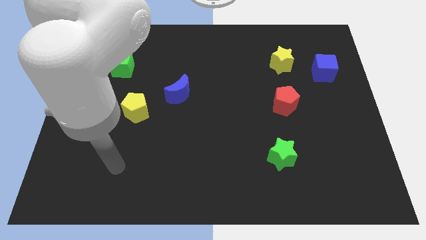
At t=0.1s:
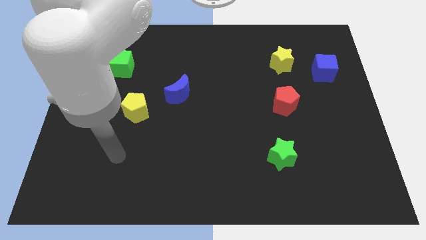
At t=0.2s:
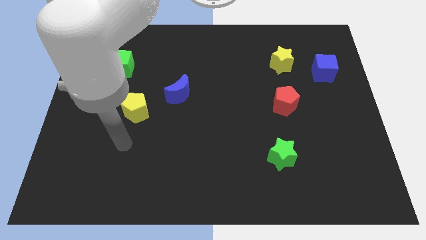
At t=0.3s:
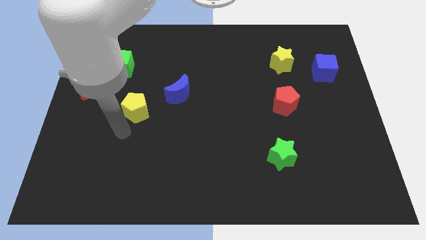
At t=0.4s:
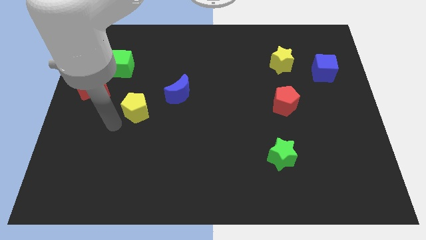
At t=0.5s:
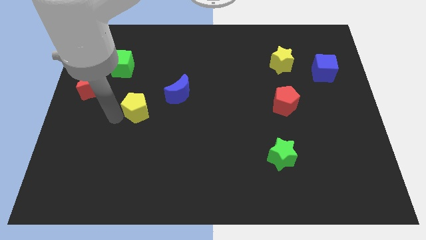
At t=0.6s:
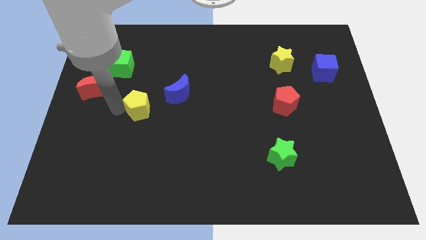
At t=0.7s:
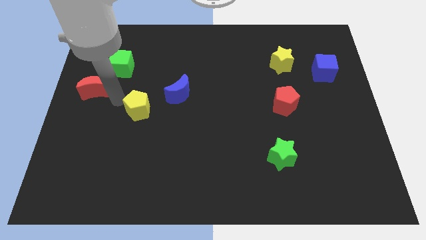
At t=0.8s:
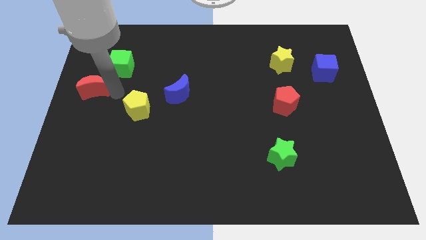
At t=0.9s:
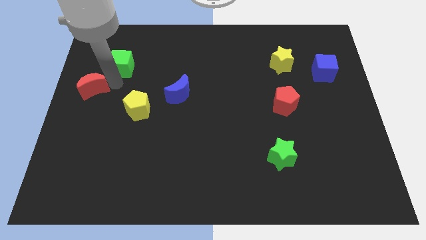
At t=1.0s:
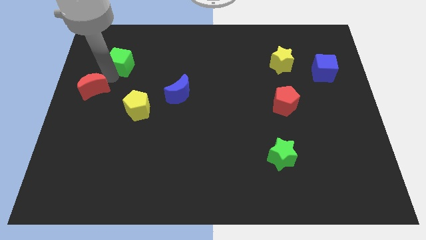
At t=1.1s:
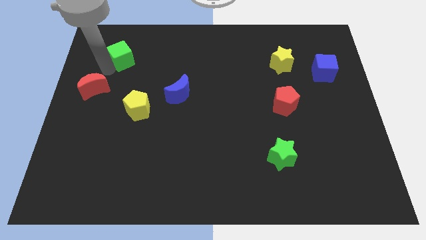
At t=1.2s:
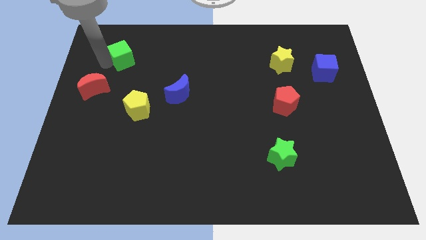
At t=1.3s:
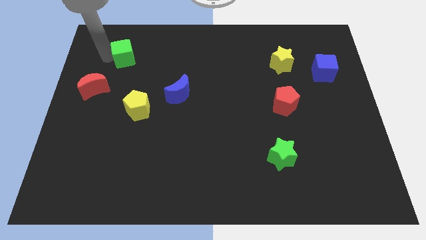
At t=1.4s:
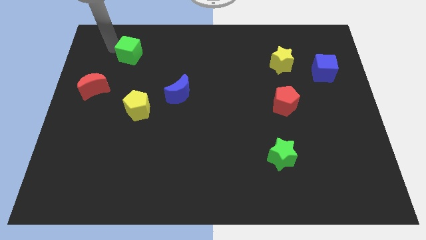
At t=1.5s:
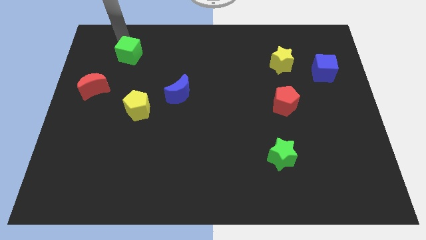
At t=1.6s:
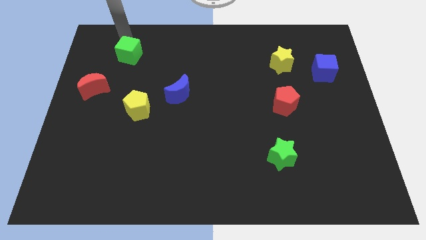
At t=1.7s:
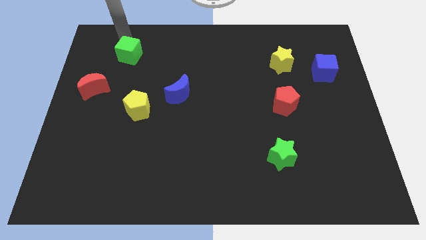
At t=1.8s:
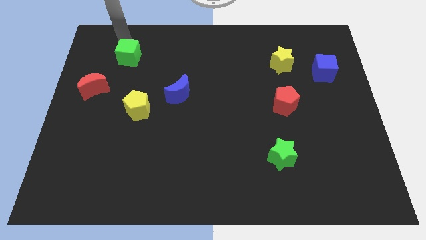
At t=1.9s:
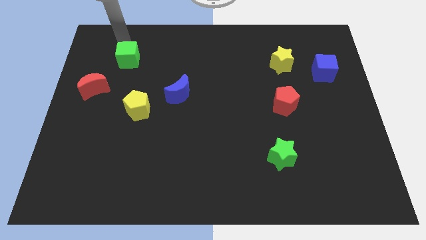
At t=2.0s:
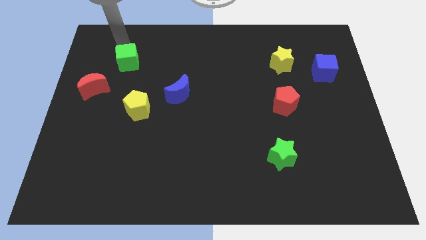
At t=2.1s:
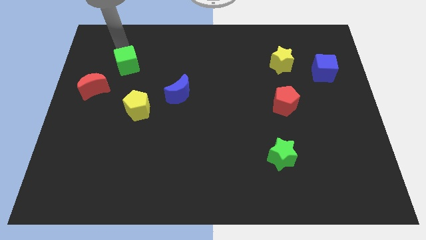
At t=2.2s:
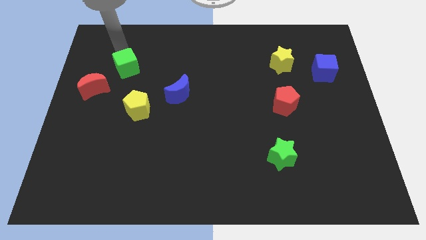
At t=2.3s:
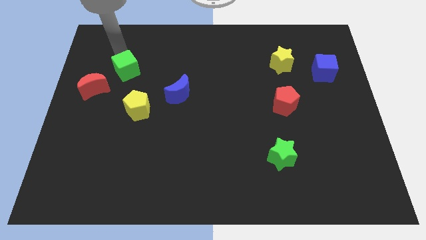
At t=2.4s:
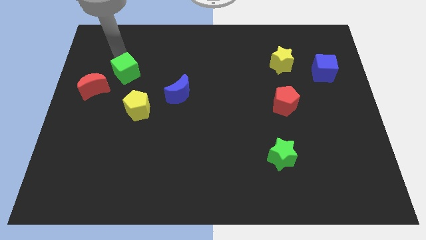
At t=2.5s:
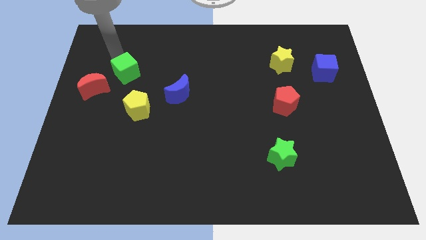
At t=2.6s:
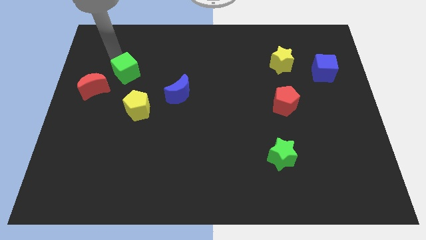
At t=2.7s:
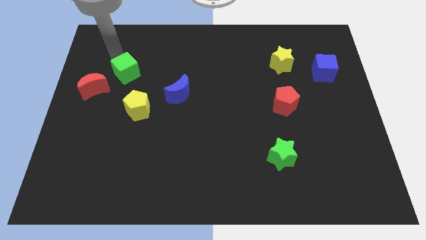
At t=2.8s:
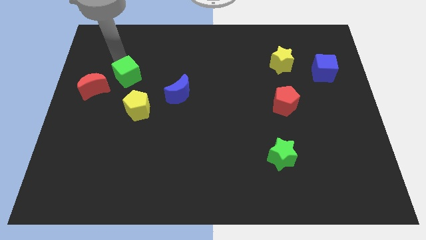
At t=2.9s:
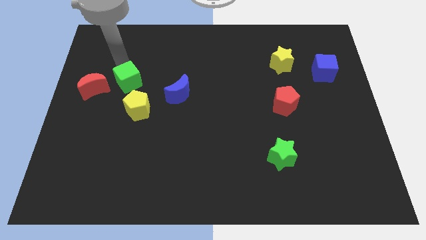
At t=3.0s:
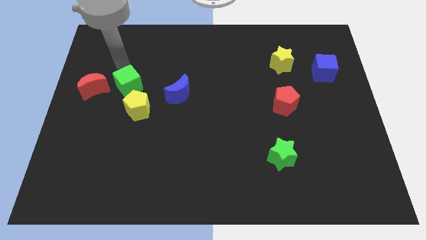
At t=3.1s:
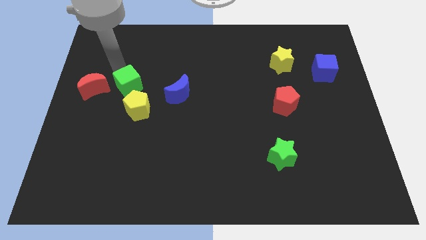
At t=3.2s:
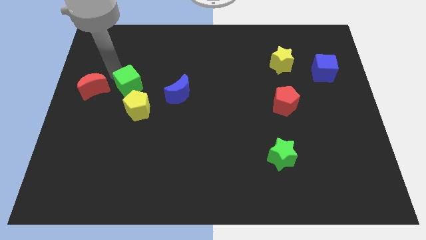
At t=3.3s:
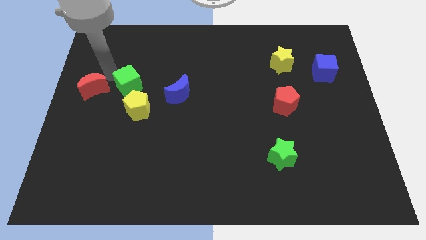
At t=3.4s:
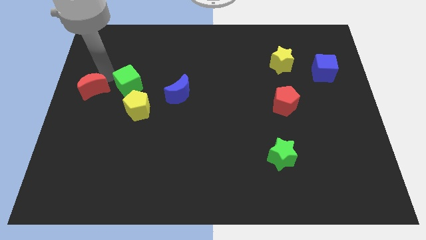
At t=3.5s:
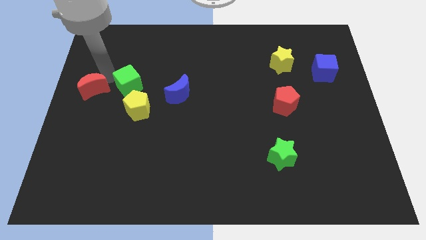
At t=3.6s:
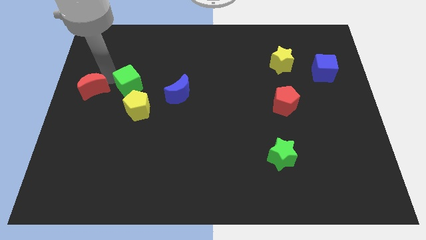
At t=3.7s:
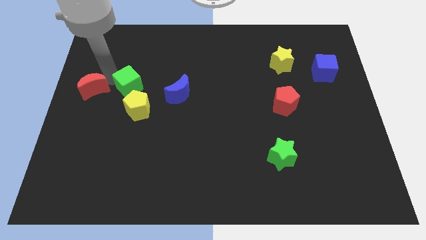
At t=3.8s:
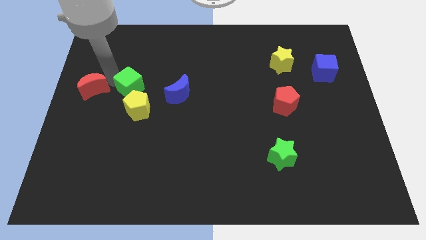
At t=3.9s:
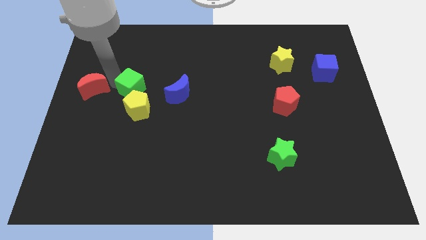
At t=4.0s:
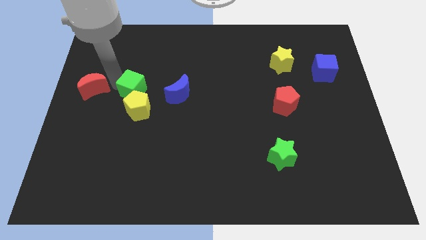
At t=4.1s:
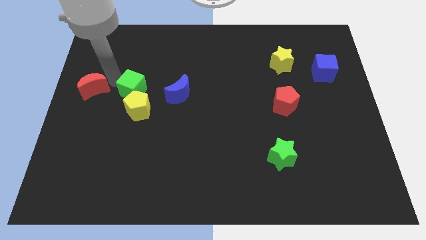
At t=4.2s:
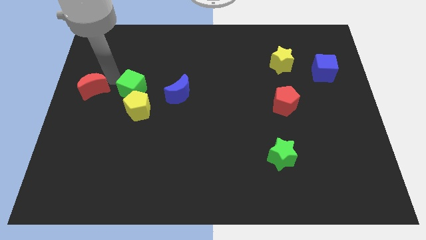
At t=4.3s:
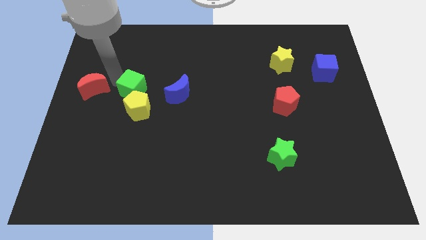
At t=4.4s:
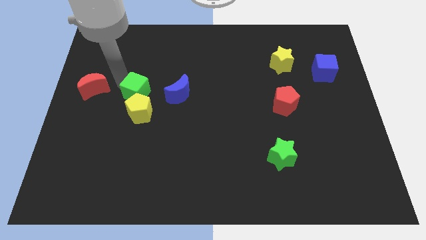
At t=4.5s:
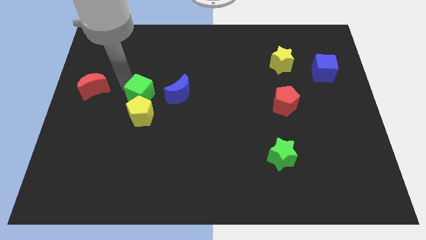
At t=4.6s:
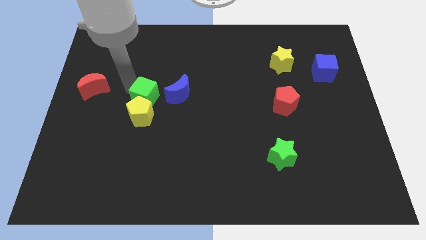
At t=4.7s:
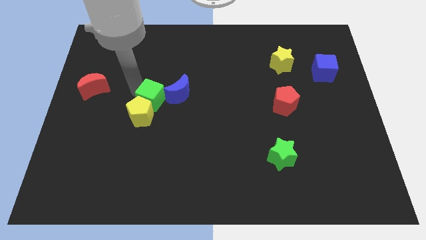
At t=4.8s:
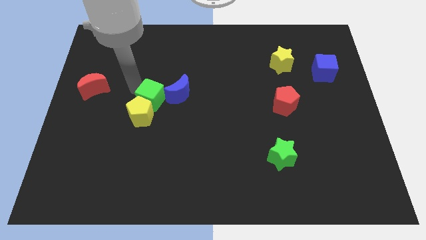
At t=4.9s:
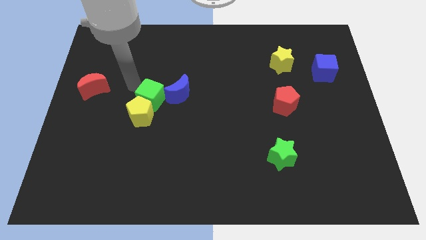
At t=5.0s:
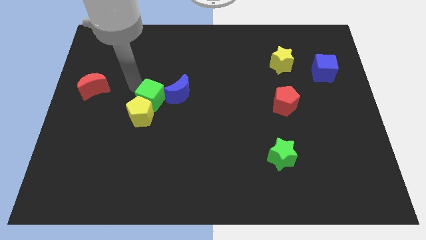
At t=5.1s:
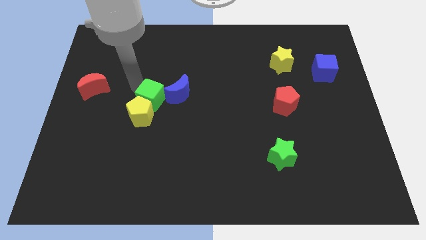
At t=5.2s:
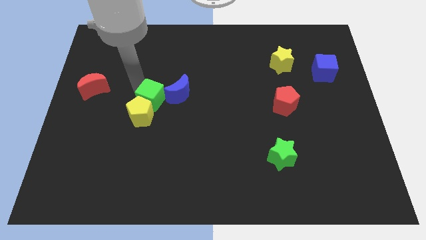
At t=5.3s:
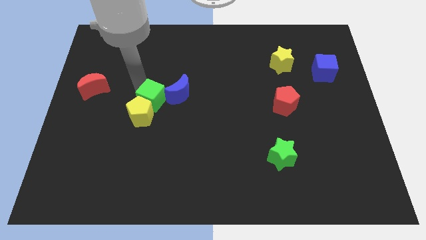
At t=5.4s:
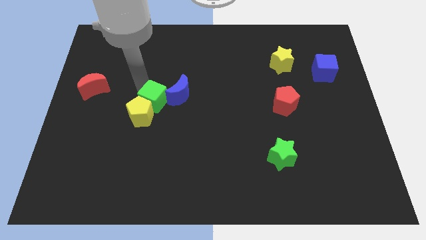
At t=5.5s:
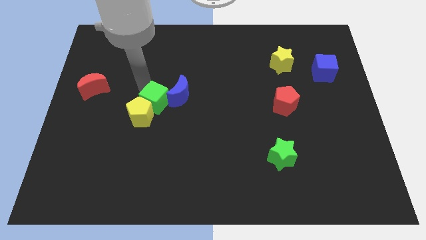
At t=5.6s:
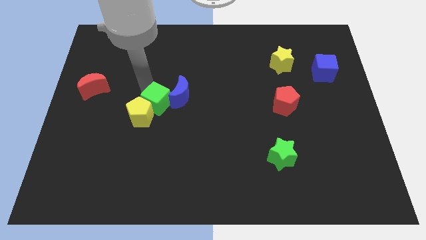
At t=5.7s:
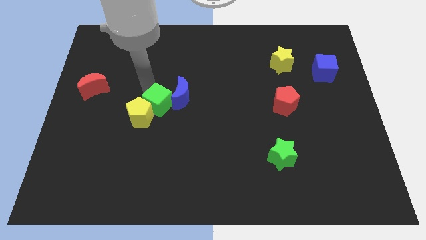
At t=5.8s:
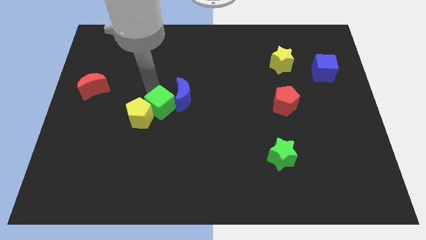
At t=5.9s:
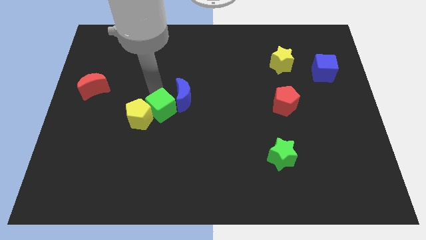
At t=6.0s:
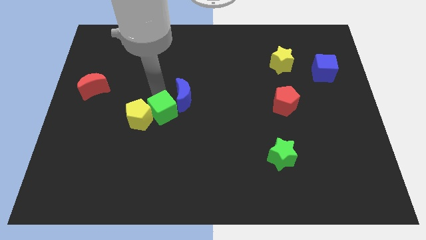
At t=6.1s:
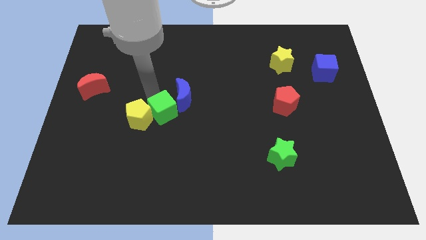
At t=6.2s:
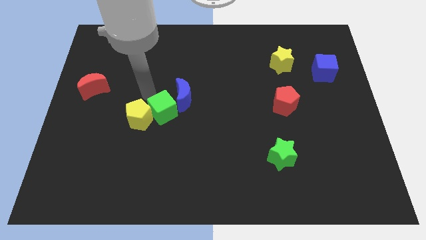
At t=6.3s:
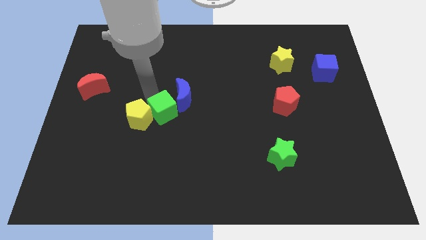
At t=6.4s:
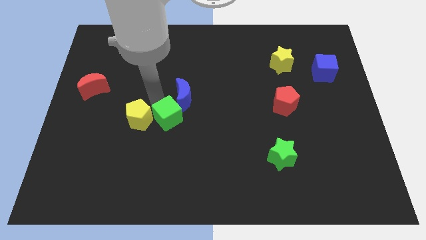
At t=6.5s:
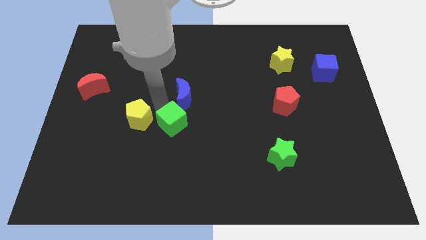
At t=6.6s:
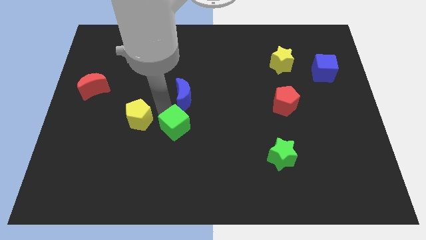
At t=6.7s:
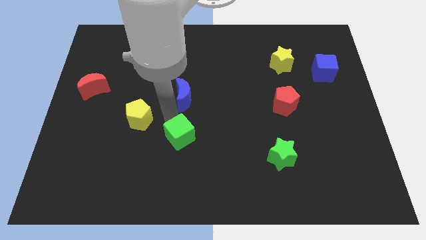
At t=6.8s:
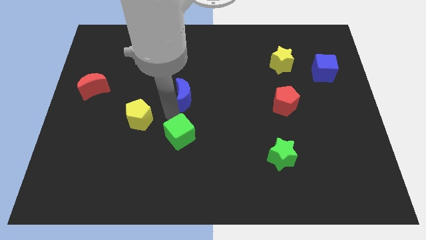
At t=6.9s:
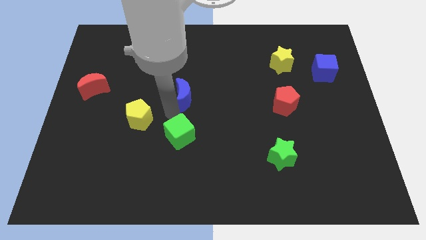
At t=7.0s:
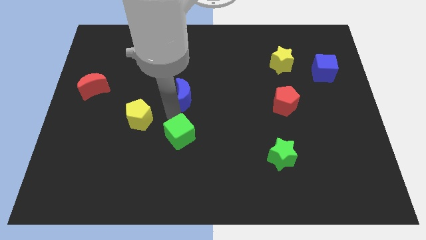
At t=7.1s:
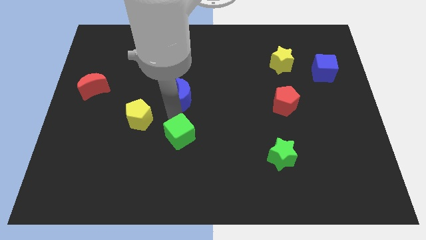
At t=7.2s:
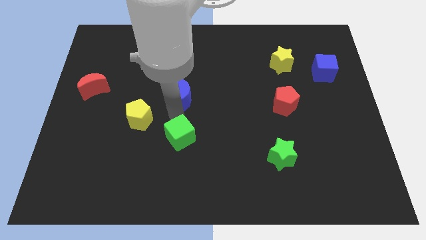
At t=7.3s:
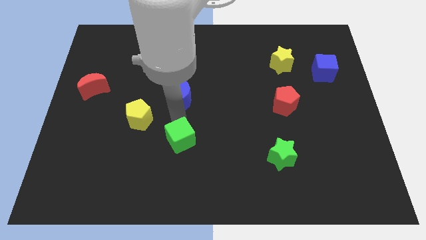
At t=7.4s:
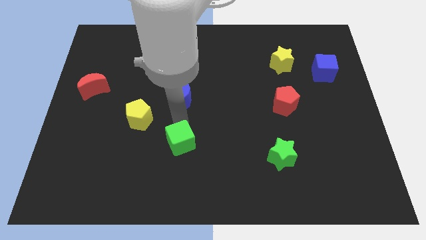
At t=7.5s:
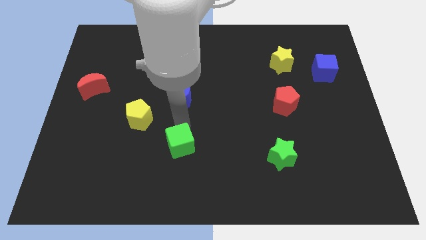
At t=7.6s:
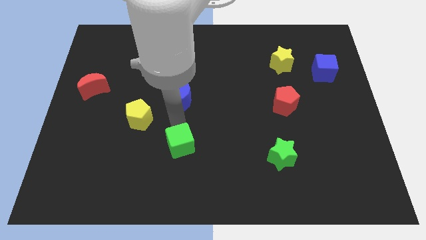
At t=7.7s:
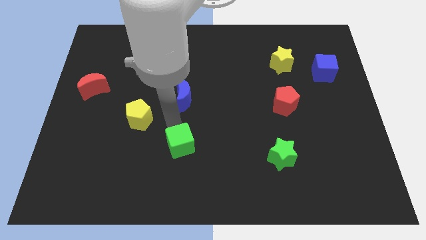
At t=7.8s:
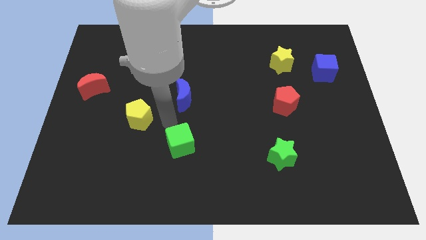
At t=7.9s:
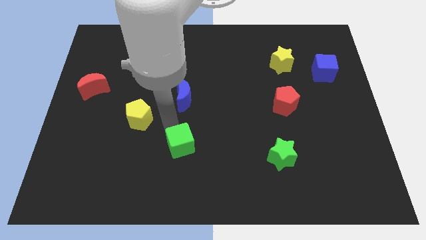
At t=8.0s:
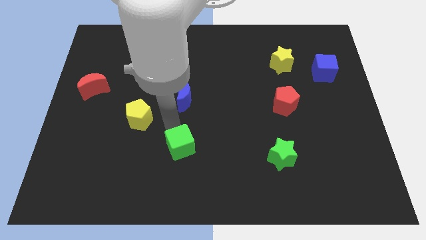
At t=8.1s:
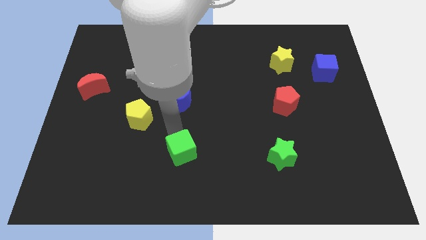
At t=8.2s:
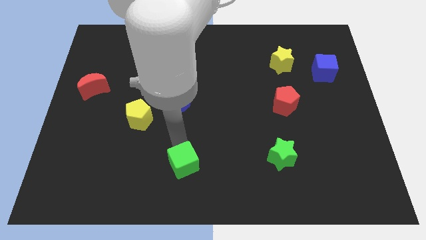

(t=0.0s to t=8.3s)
push the green cube to the bottom
